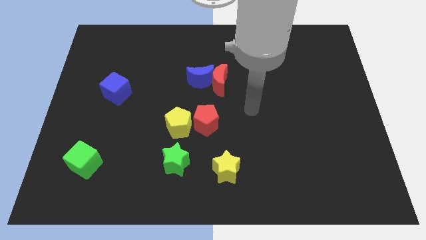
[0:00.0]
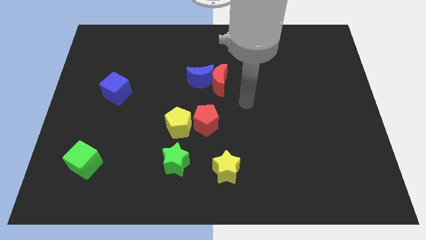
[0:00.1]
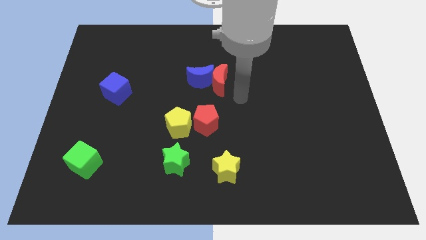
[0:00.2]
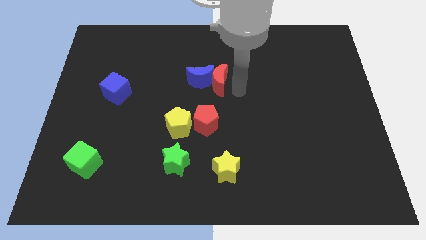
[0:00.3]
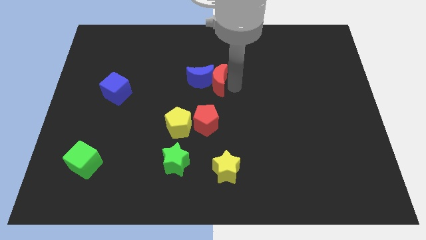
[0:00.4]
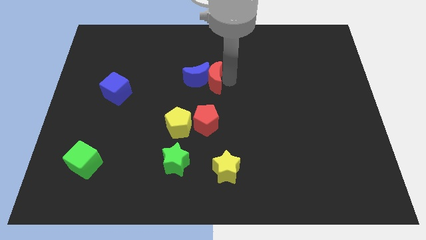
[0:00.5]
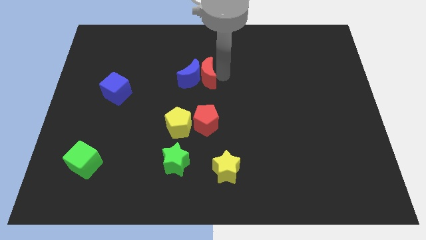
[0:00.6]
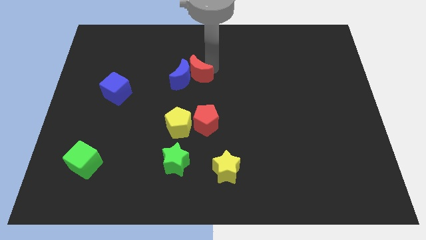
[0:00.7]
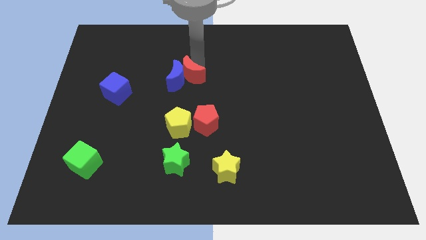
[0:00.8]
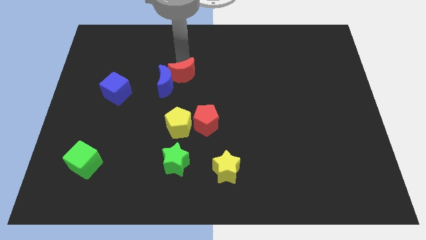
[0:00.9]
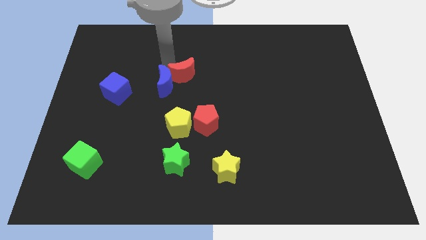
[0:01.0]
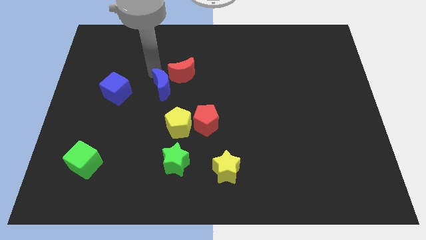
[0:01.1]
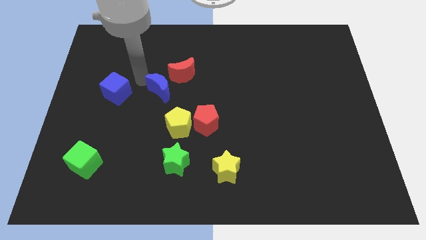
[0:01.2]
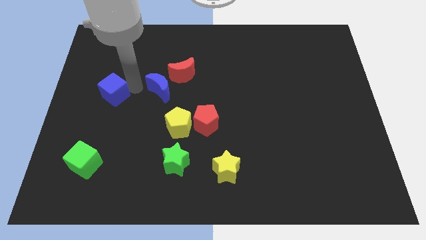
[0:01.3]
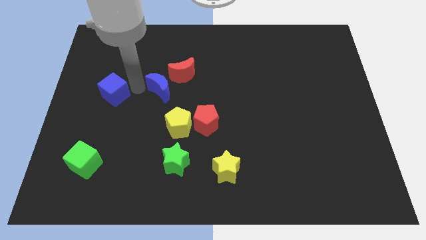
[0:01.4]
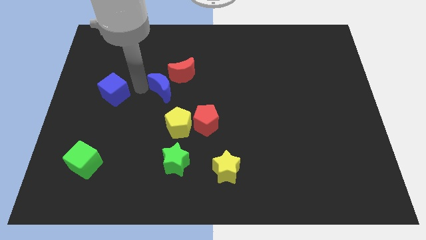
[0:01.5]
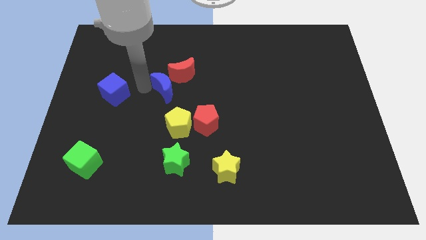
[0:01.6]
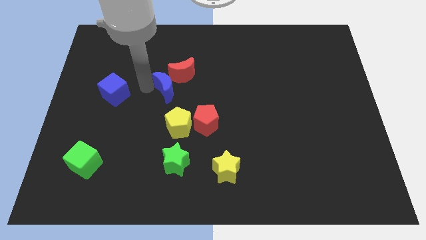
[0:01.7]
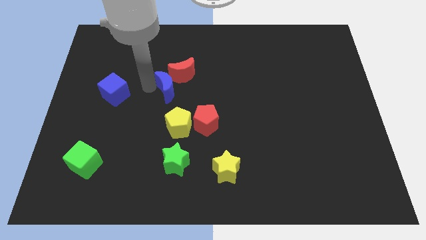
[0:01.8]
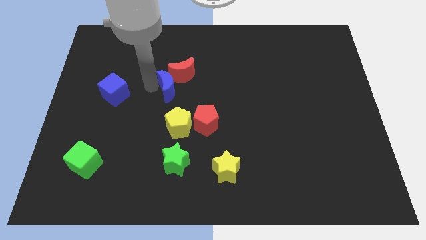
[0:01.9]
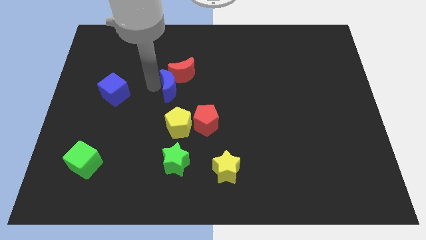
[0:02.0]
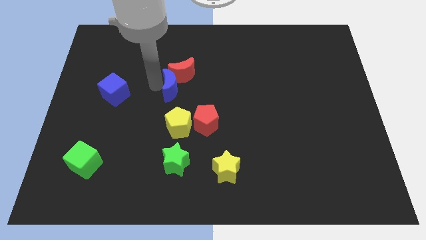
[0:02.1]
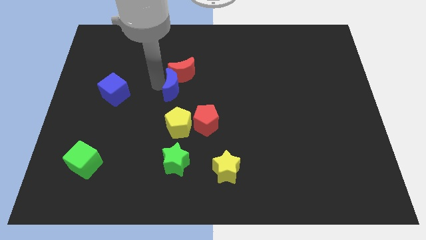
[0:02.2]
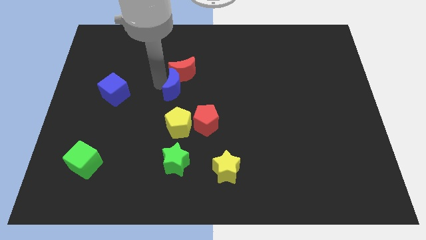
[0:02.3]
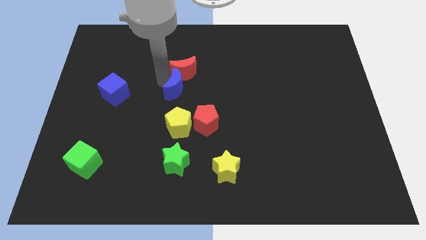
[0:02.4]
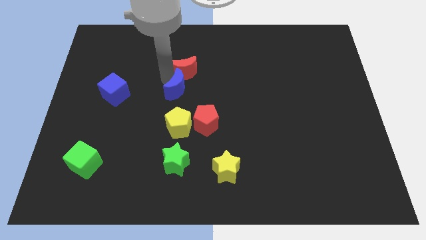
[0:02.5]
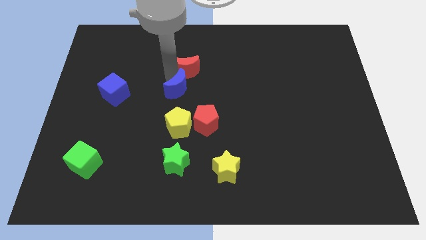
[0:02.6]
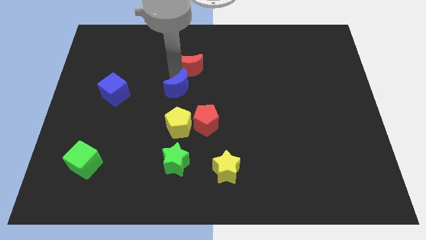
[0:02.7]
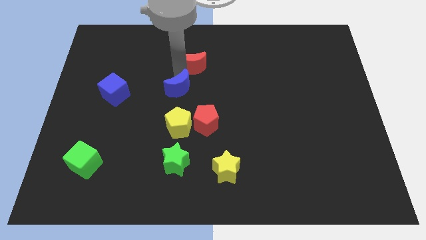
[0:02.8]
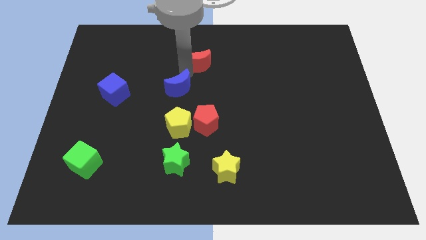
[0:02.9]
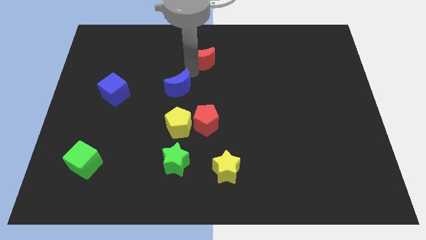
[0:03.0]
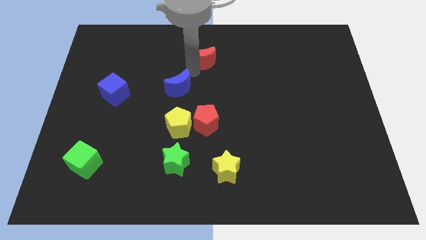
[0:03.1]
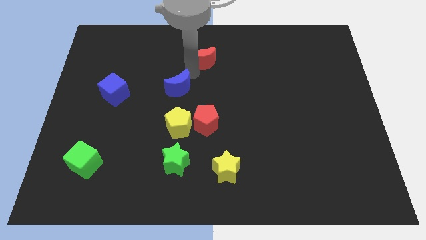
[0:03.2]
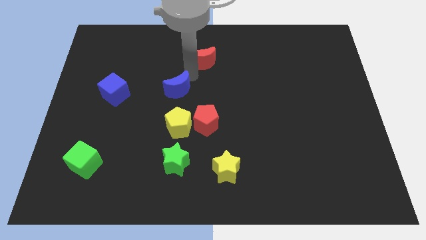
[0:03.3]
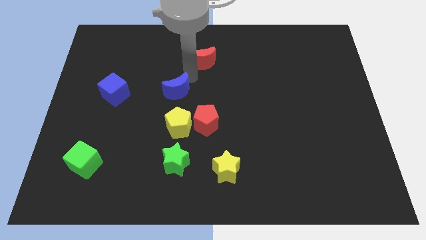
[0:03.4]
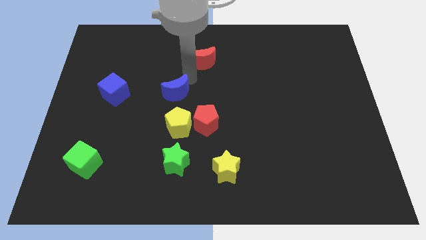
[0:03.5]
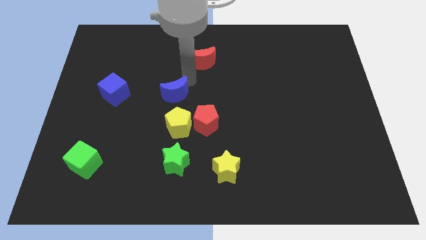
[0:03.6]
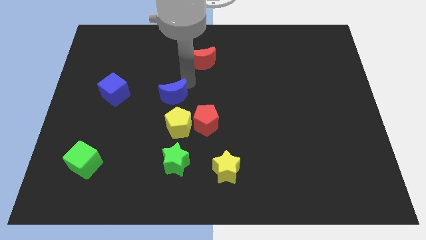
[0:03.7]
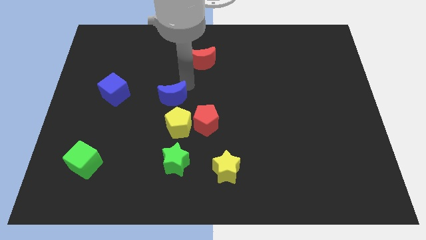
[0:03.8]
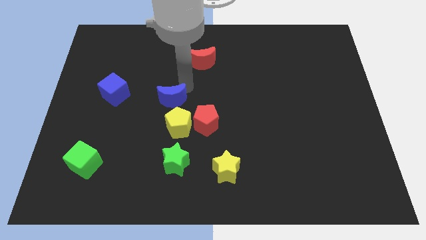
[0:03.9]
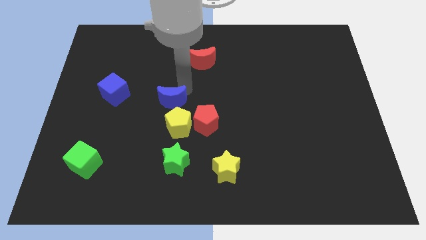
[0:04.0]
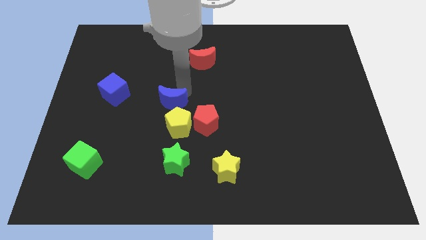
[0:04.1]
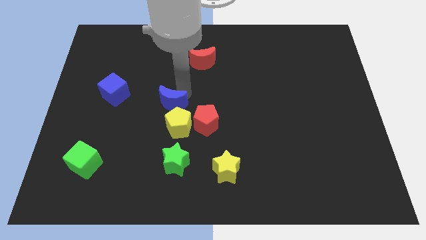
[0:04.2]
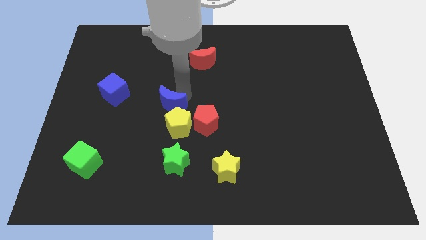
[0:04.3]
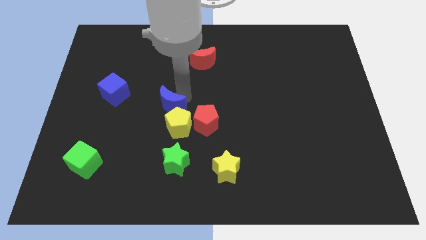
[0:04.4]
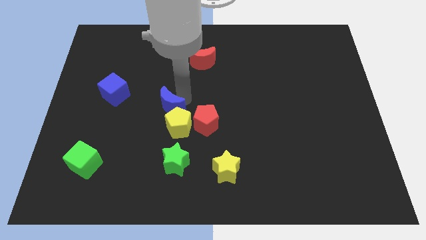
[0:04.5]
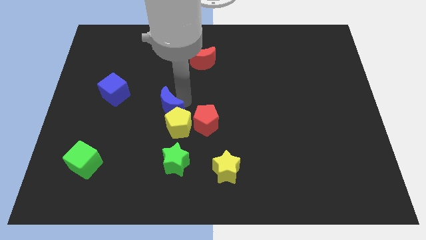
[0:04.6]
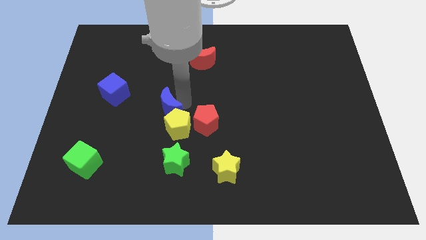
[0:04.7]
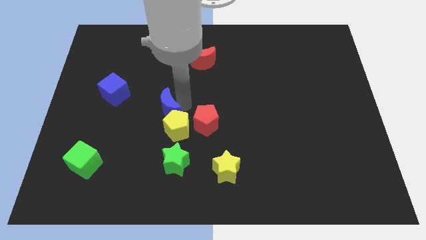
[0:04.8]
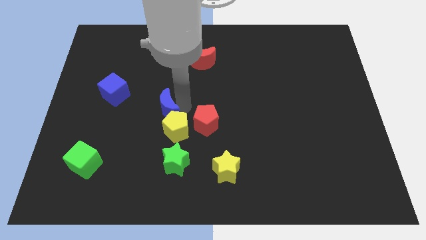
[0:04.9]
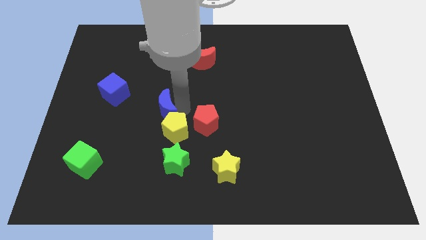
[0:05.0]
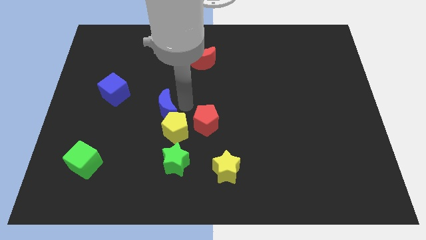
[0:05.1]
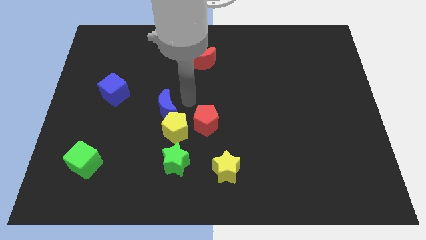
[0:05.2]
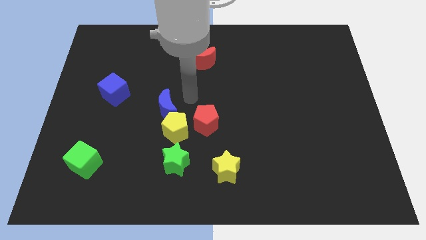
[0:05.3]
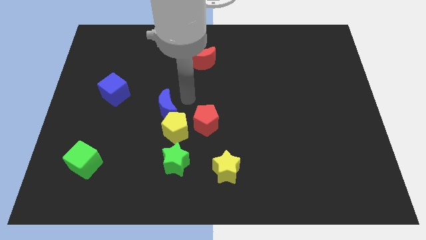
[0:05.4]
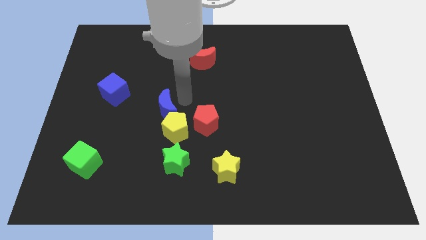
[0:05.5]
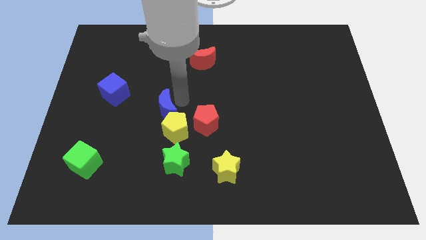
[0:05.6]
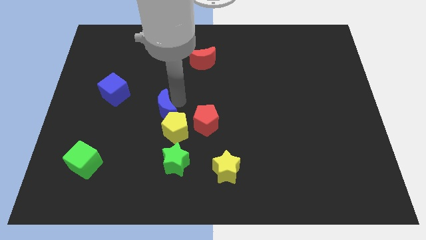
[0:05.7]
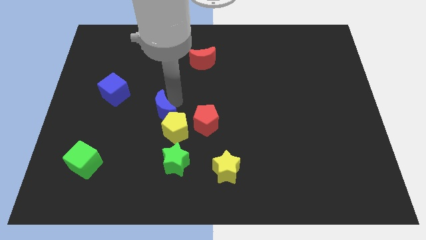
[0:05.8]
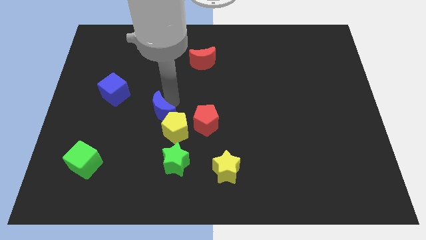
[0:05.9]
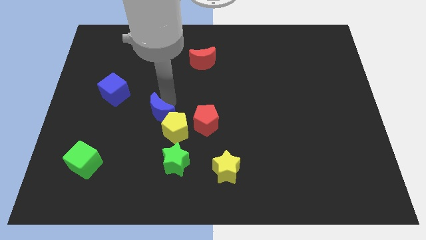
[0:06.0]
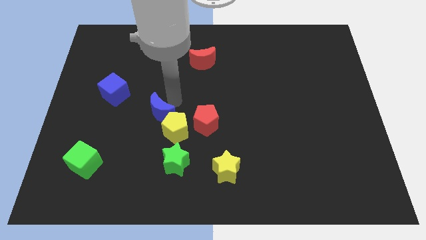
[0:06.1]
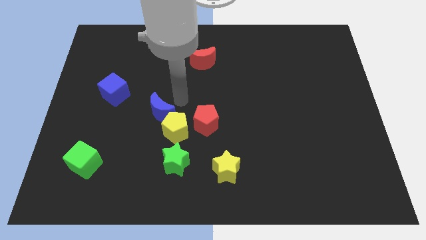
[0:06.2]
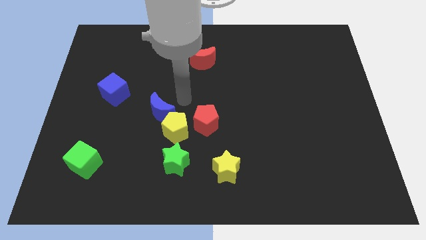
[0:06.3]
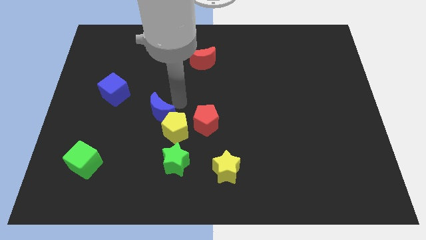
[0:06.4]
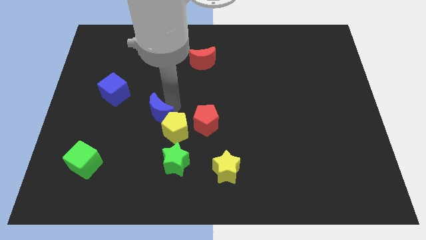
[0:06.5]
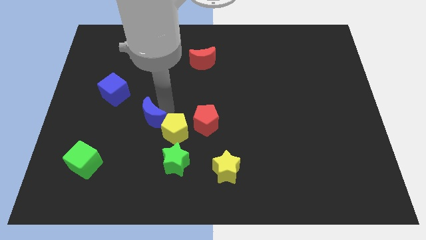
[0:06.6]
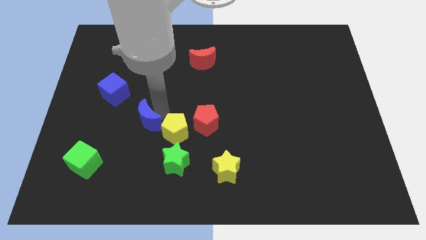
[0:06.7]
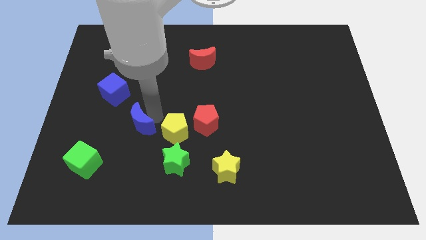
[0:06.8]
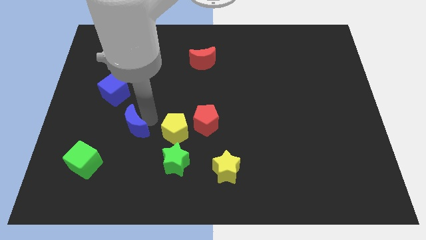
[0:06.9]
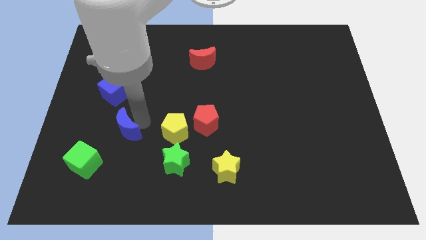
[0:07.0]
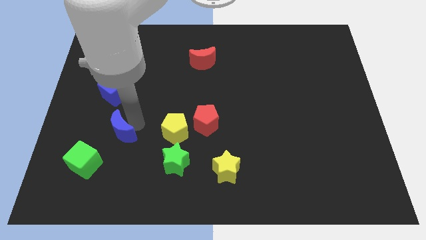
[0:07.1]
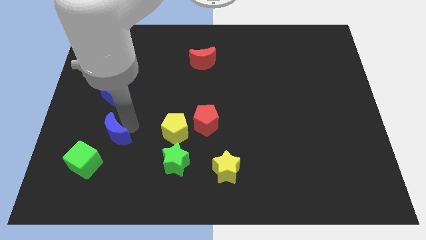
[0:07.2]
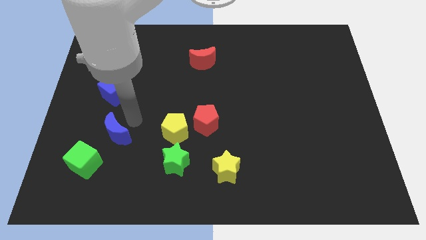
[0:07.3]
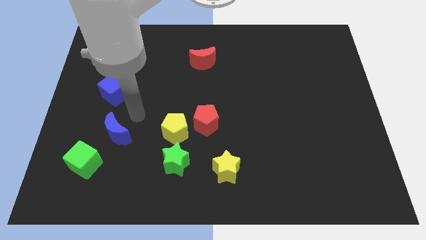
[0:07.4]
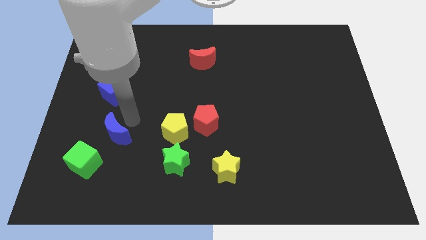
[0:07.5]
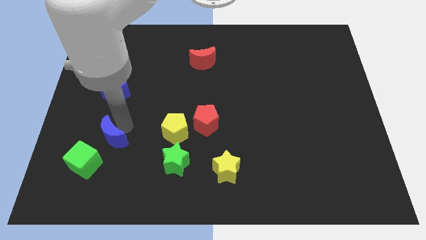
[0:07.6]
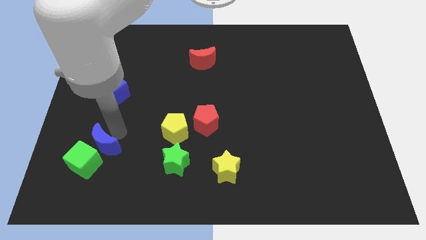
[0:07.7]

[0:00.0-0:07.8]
move the blue moon close to the green cube
